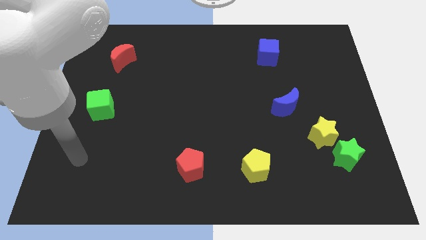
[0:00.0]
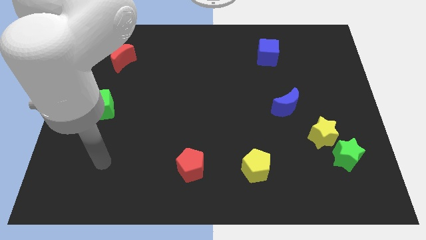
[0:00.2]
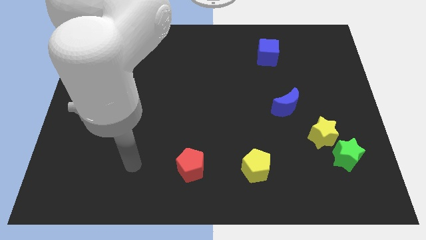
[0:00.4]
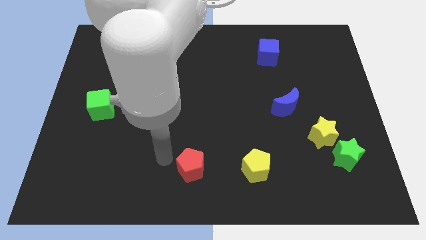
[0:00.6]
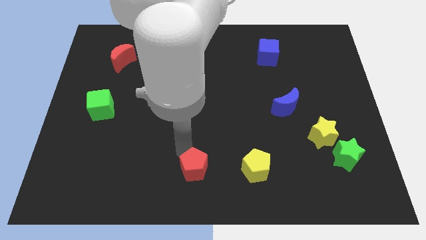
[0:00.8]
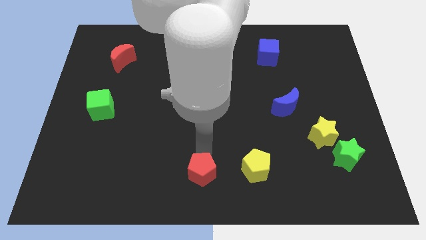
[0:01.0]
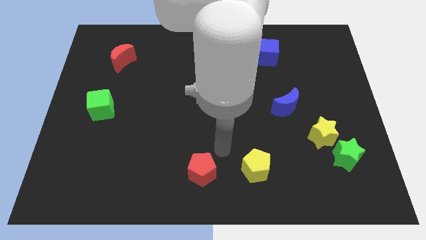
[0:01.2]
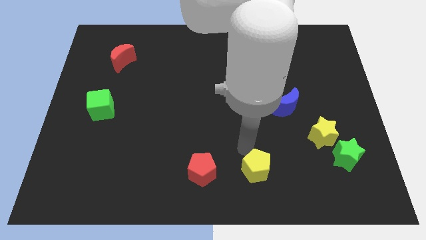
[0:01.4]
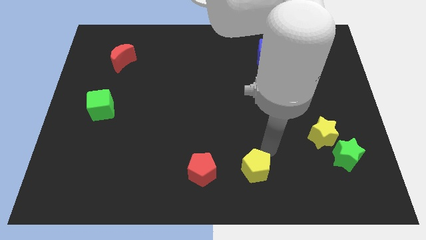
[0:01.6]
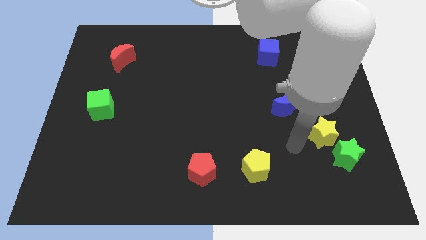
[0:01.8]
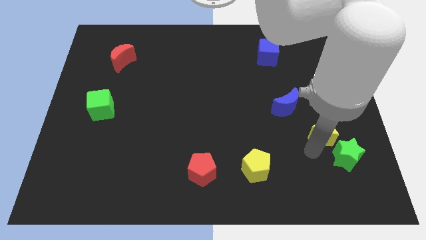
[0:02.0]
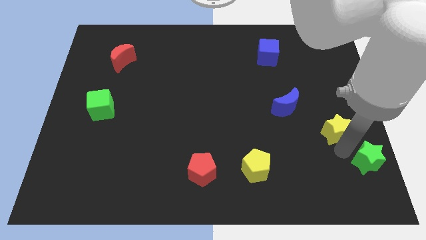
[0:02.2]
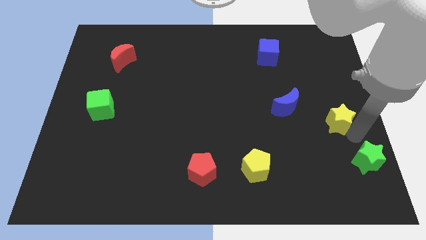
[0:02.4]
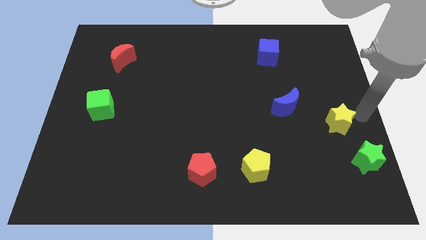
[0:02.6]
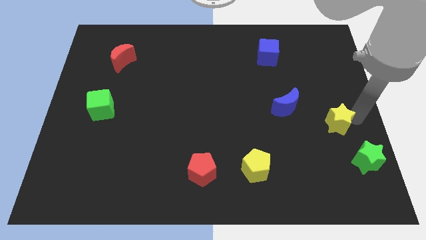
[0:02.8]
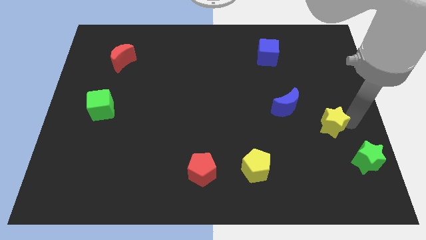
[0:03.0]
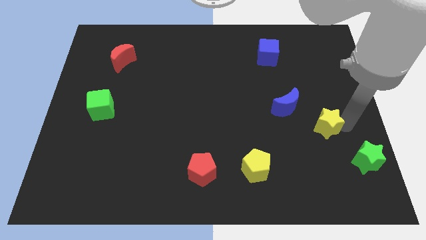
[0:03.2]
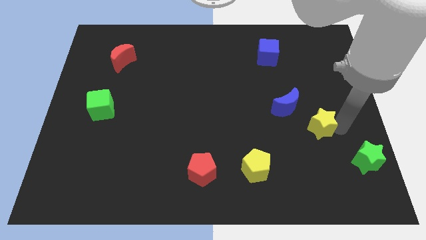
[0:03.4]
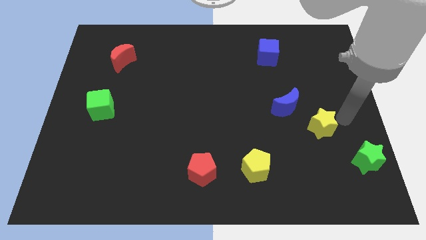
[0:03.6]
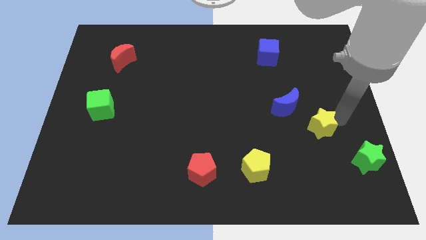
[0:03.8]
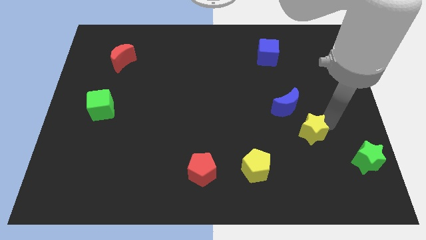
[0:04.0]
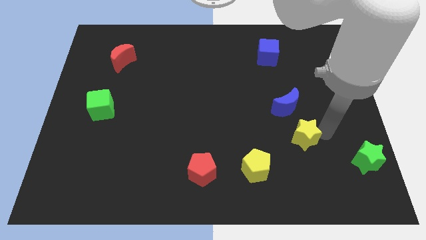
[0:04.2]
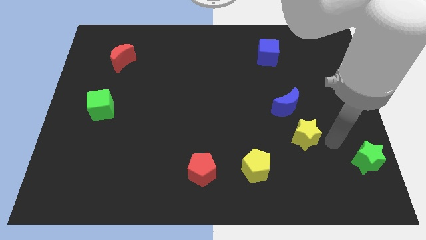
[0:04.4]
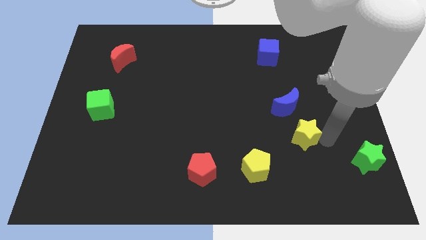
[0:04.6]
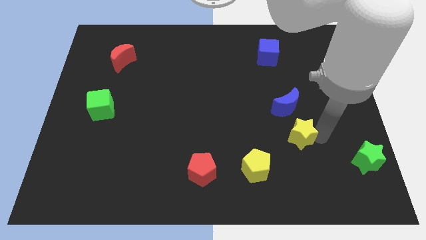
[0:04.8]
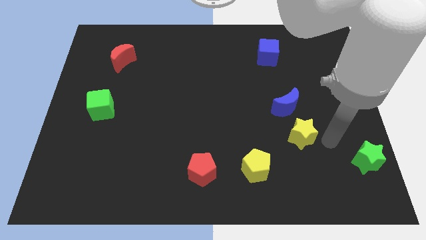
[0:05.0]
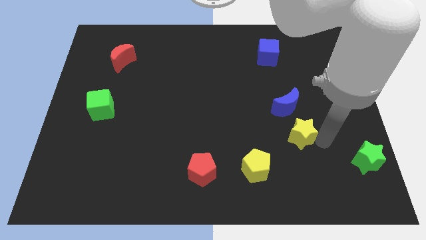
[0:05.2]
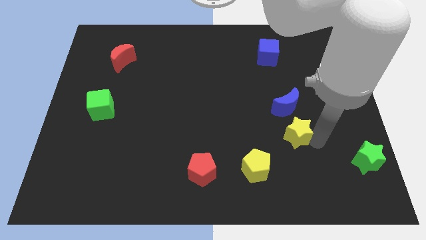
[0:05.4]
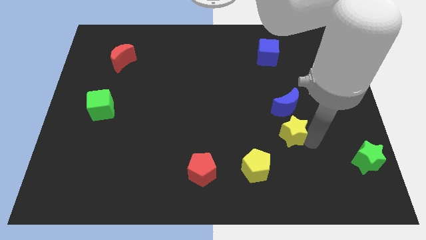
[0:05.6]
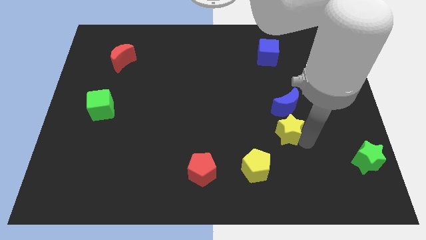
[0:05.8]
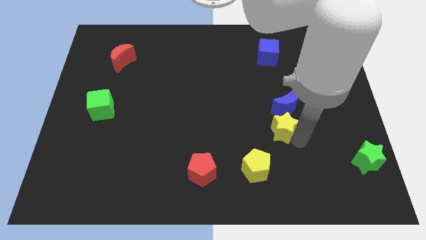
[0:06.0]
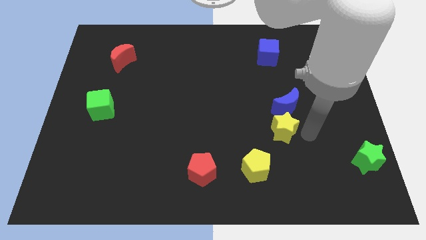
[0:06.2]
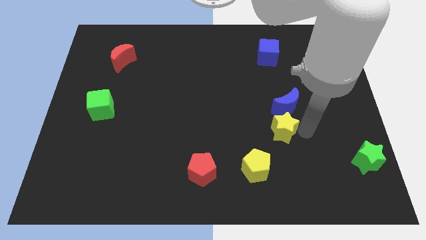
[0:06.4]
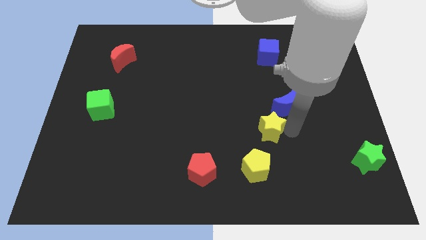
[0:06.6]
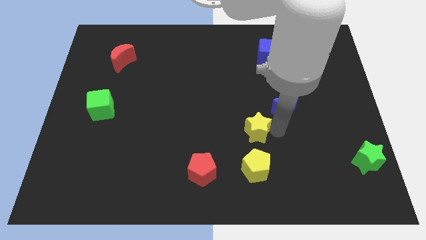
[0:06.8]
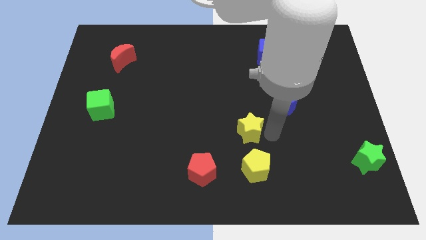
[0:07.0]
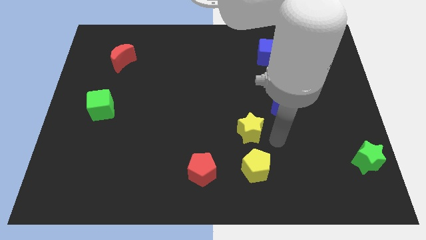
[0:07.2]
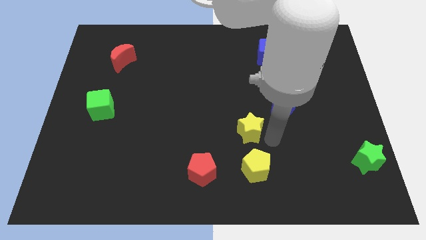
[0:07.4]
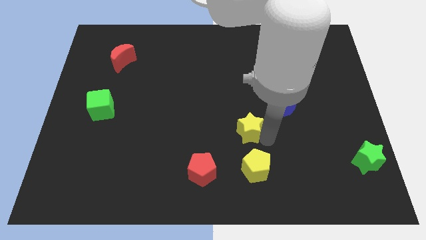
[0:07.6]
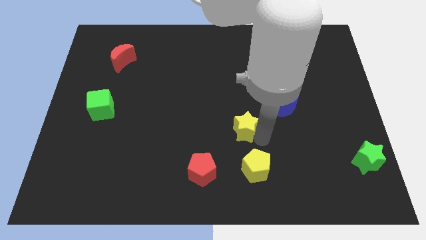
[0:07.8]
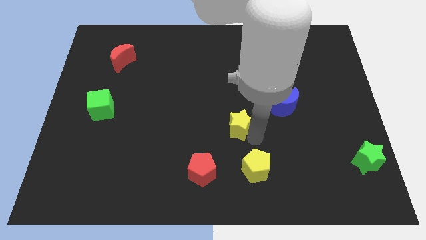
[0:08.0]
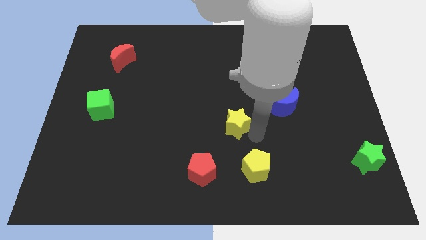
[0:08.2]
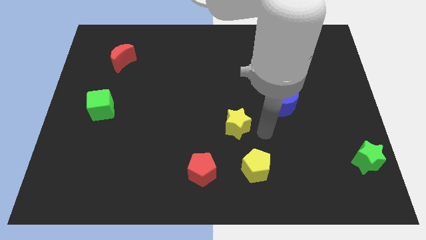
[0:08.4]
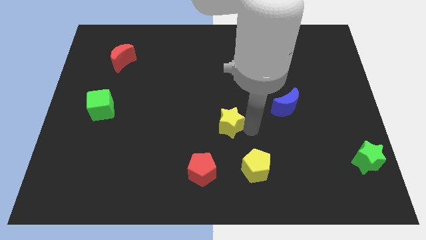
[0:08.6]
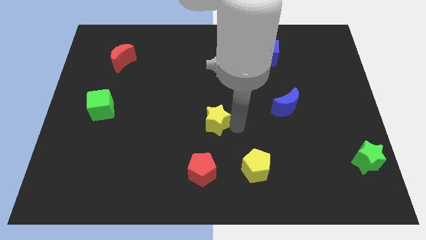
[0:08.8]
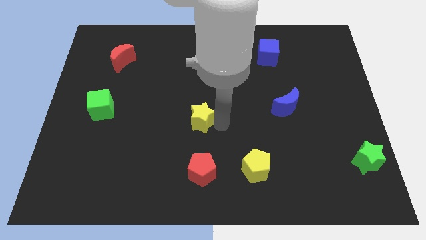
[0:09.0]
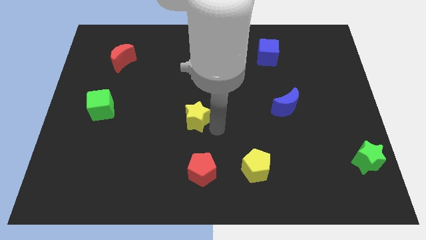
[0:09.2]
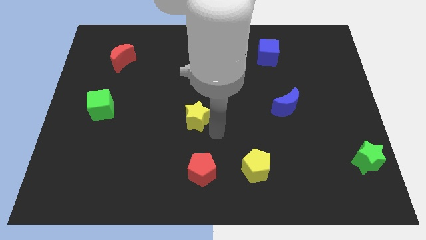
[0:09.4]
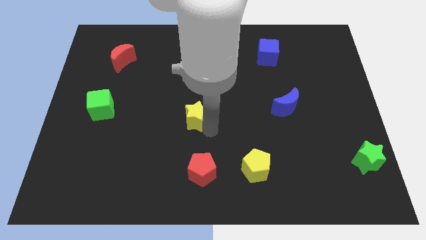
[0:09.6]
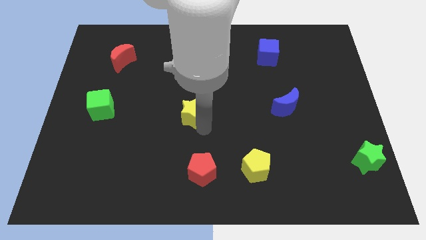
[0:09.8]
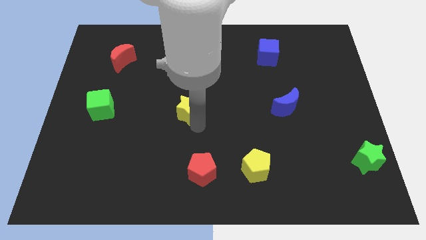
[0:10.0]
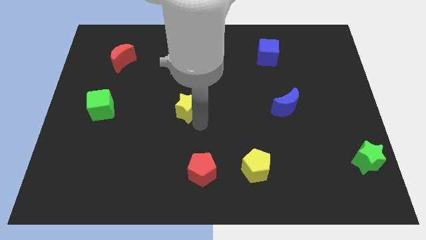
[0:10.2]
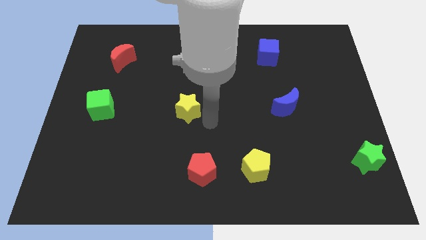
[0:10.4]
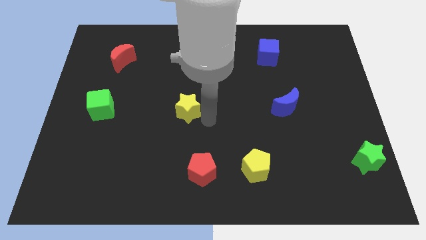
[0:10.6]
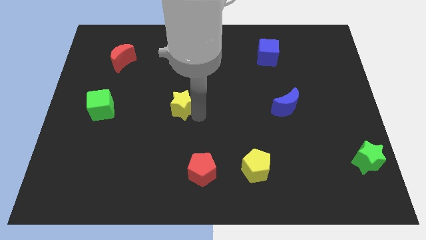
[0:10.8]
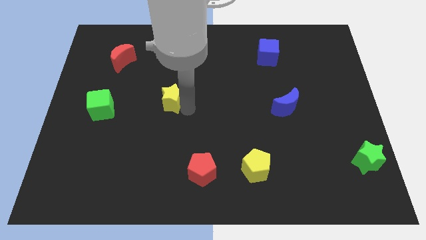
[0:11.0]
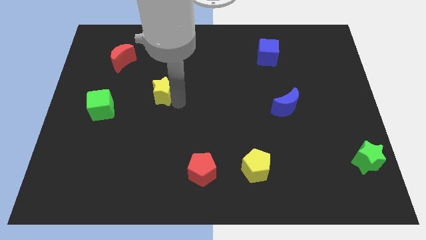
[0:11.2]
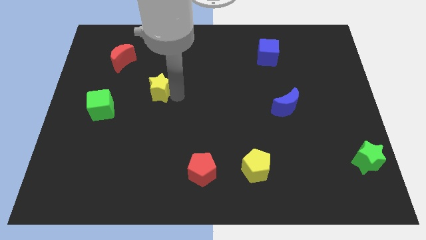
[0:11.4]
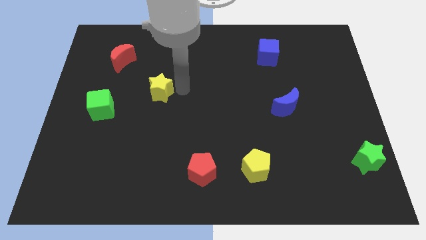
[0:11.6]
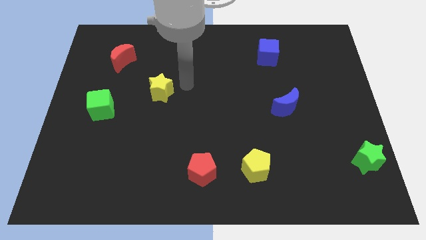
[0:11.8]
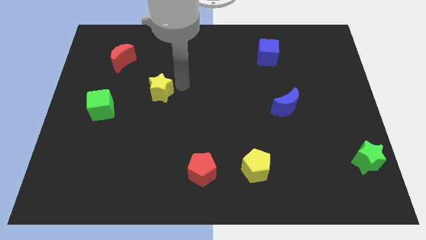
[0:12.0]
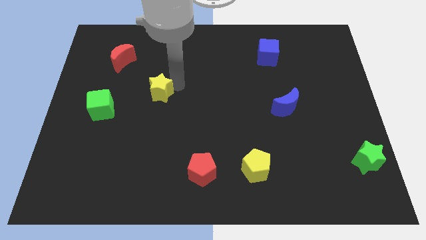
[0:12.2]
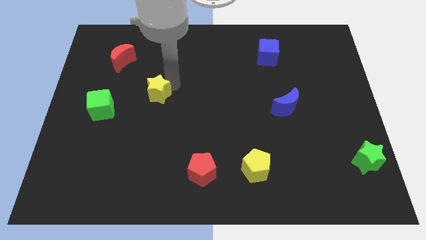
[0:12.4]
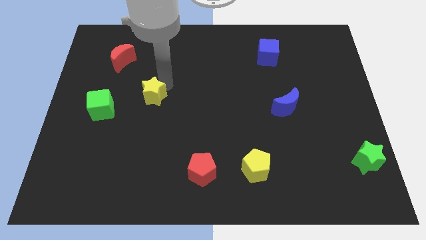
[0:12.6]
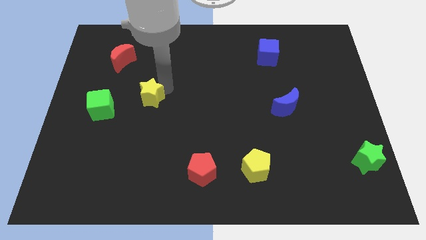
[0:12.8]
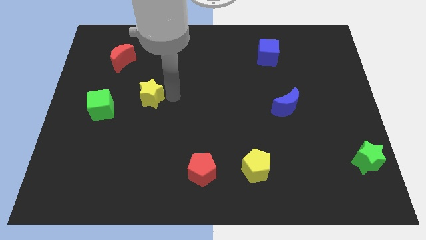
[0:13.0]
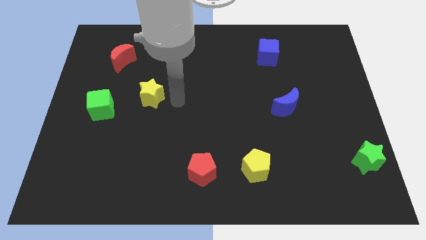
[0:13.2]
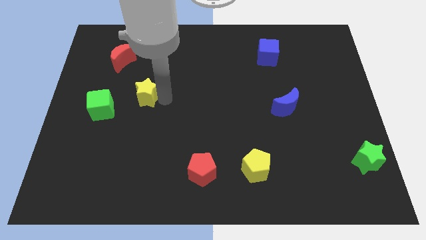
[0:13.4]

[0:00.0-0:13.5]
push the yellow star to the top right of the green cube

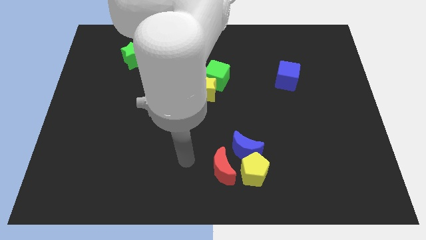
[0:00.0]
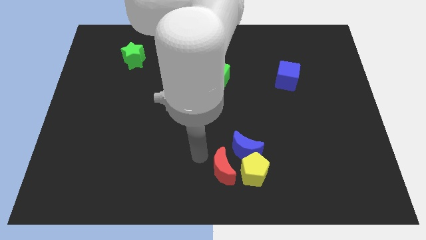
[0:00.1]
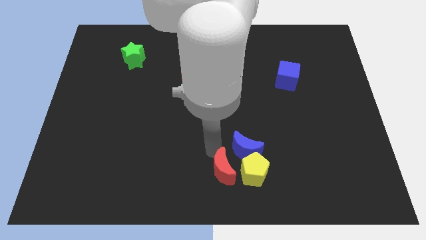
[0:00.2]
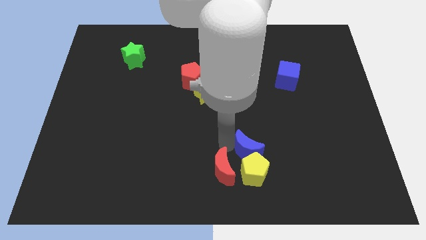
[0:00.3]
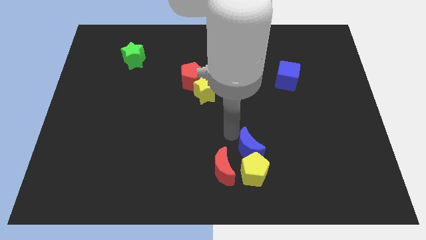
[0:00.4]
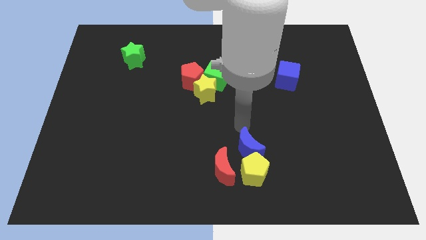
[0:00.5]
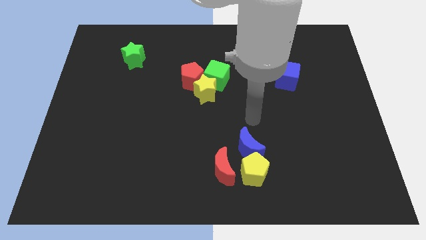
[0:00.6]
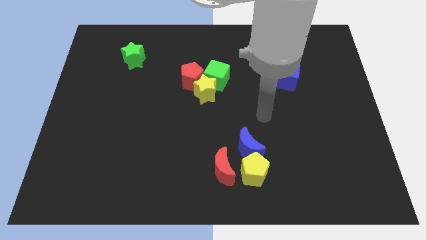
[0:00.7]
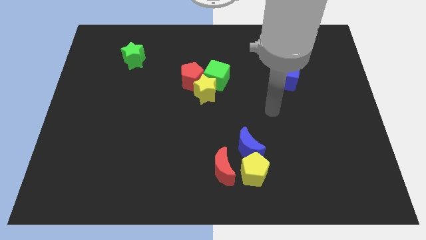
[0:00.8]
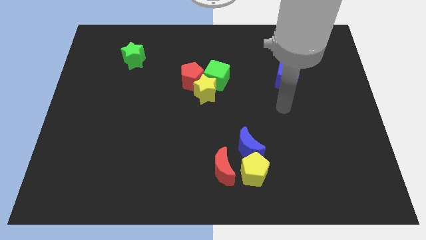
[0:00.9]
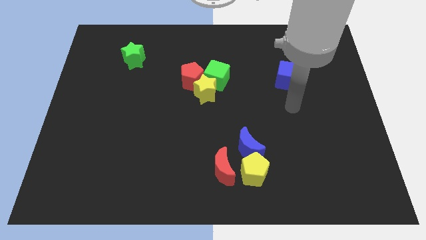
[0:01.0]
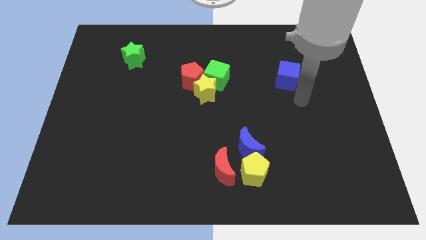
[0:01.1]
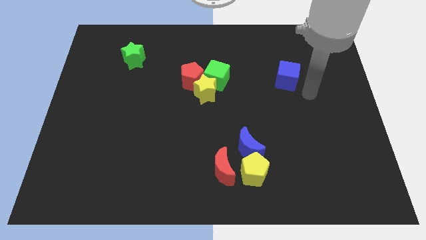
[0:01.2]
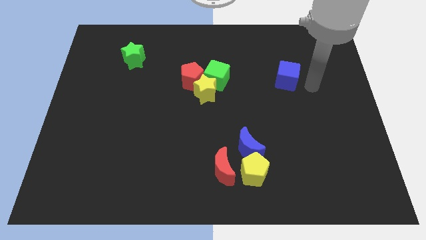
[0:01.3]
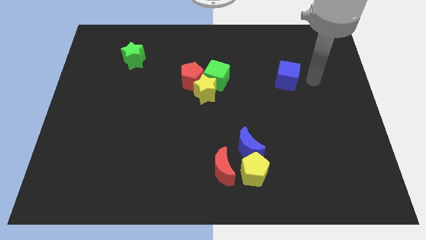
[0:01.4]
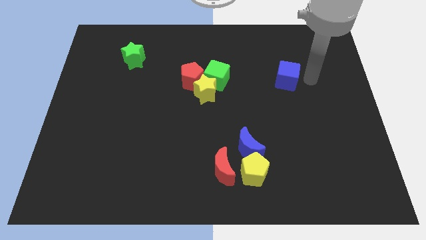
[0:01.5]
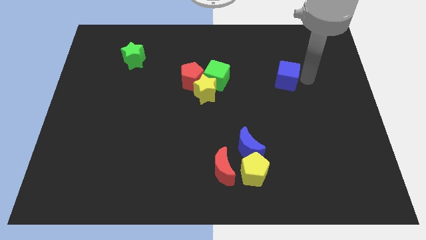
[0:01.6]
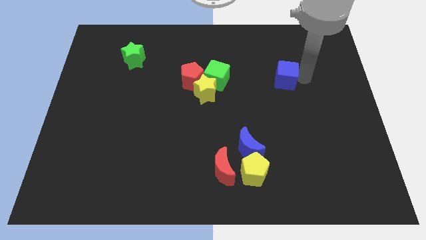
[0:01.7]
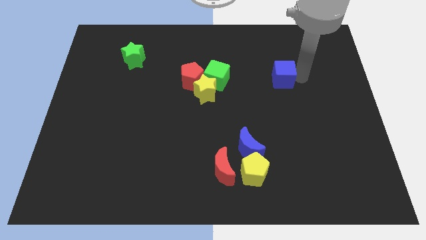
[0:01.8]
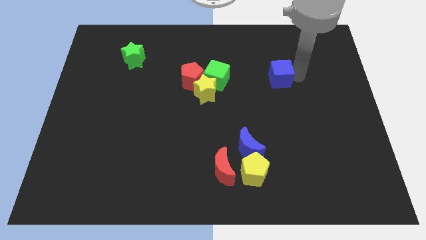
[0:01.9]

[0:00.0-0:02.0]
put the blue cube to the right side of the green cube
